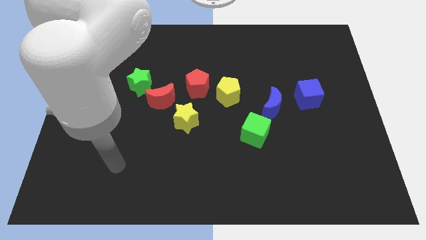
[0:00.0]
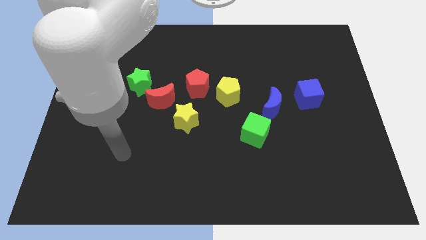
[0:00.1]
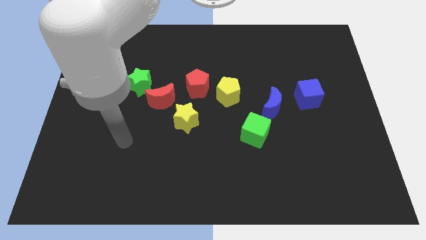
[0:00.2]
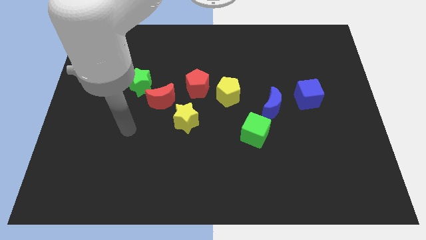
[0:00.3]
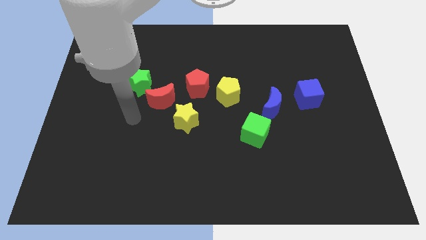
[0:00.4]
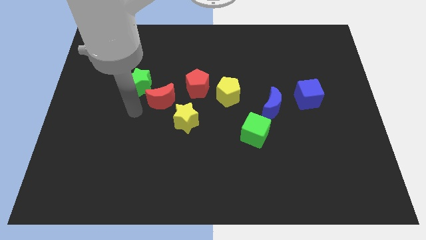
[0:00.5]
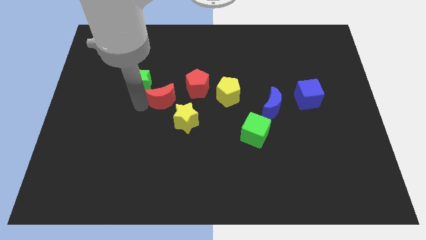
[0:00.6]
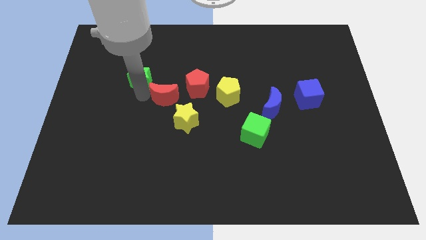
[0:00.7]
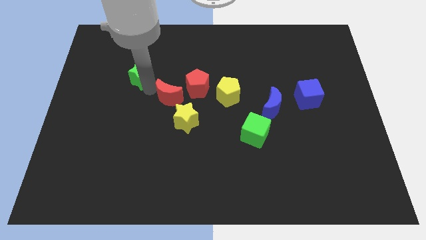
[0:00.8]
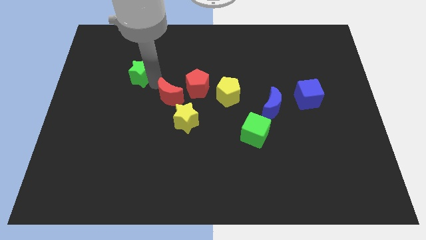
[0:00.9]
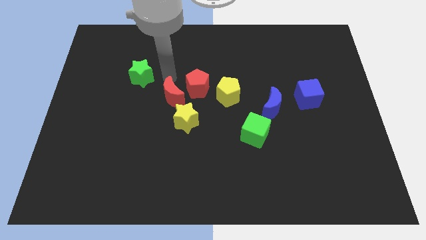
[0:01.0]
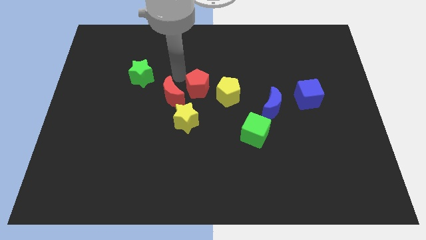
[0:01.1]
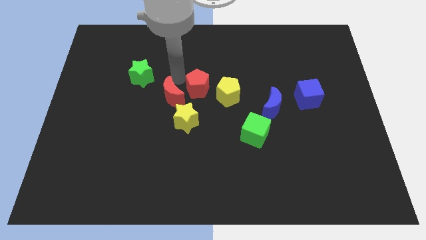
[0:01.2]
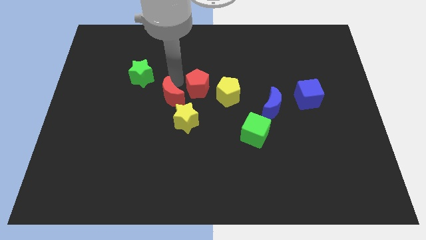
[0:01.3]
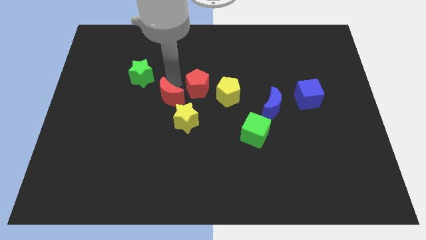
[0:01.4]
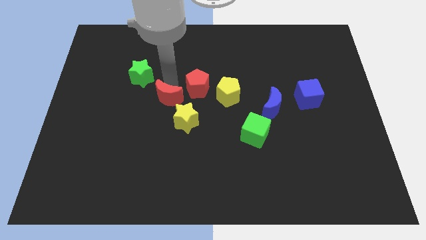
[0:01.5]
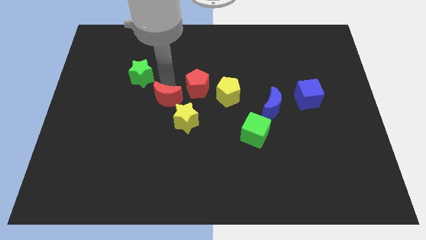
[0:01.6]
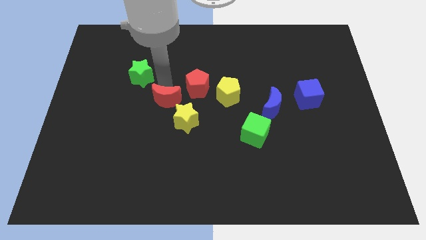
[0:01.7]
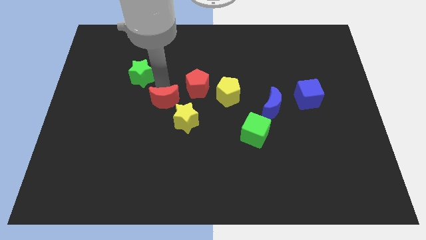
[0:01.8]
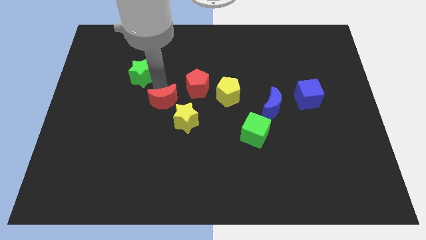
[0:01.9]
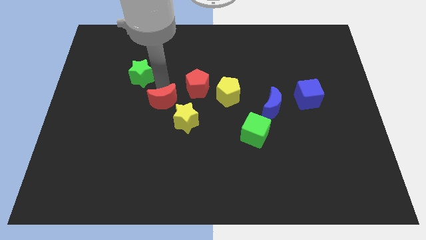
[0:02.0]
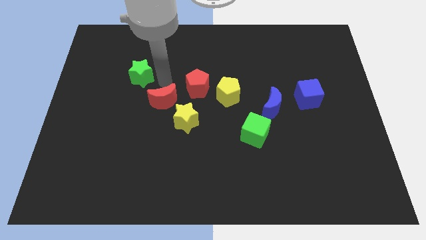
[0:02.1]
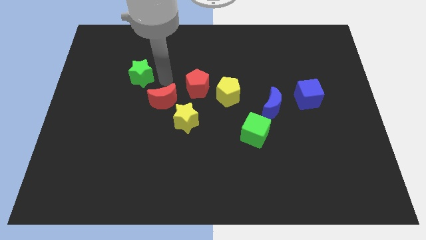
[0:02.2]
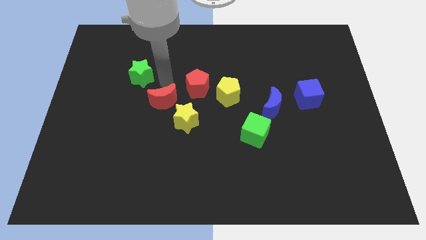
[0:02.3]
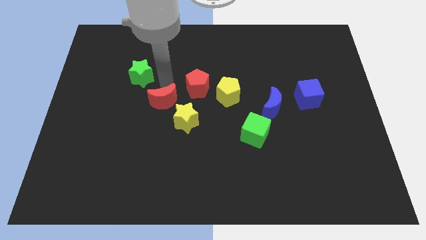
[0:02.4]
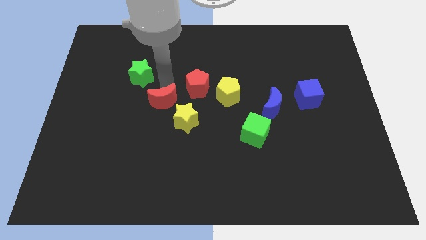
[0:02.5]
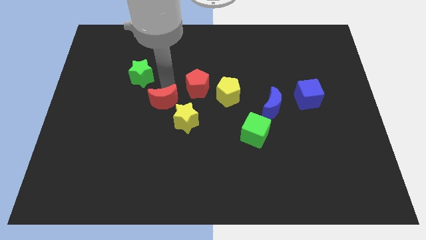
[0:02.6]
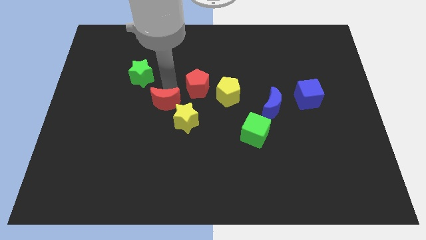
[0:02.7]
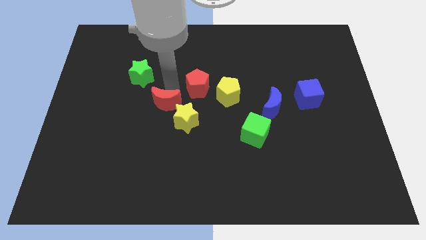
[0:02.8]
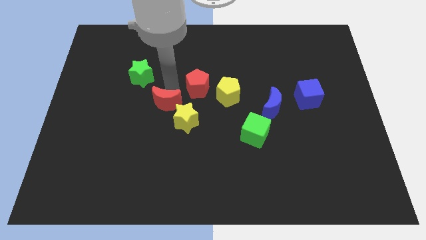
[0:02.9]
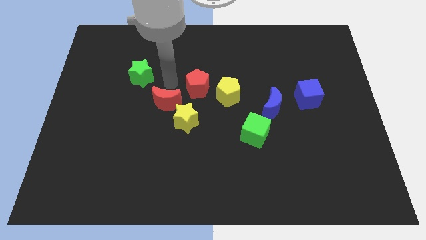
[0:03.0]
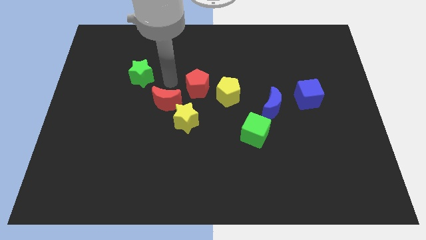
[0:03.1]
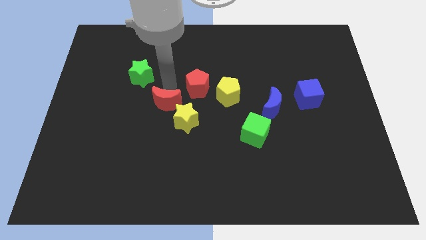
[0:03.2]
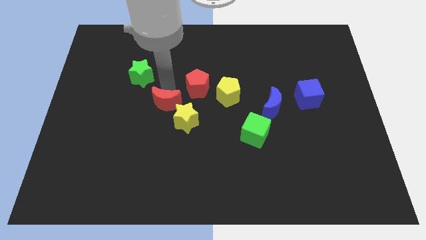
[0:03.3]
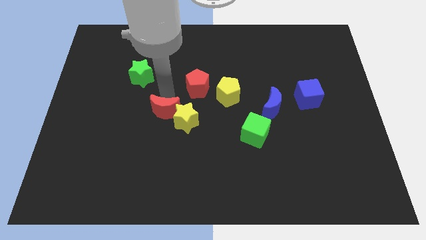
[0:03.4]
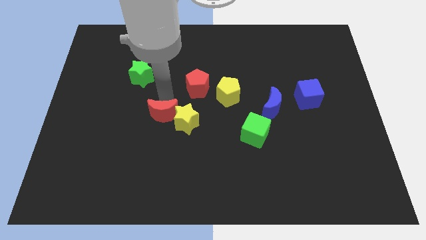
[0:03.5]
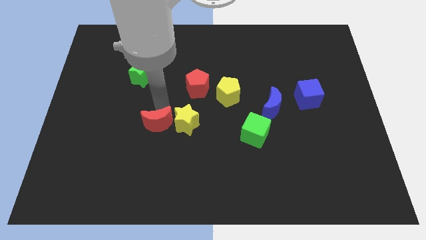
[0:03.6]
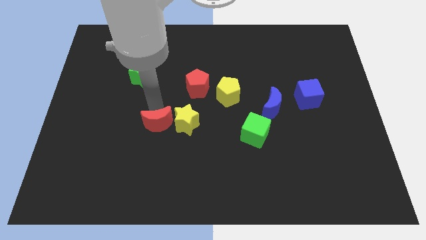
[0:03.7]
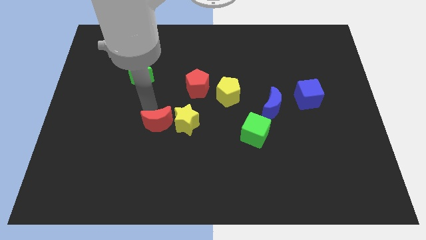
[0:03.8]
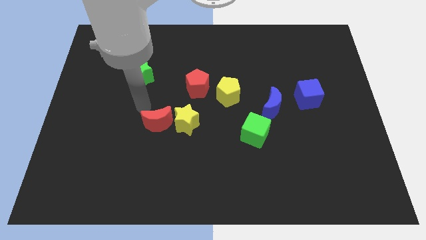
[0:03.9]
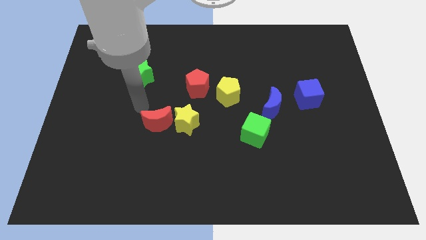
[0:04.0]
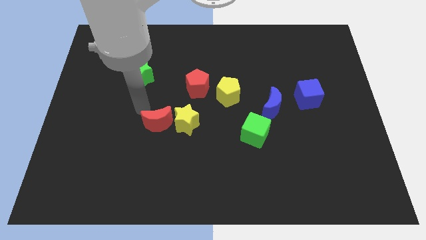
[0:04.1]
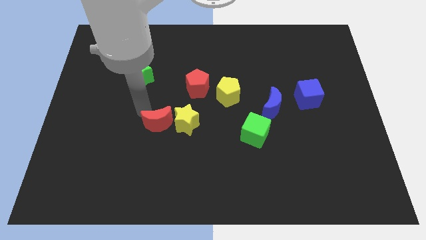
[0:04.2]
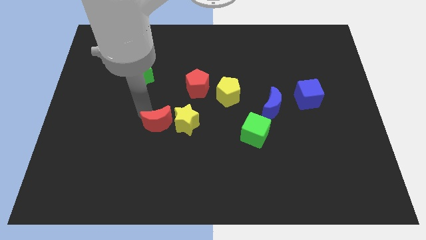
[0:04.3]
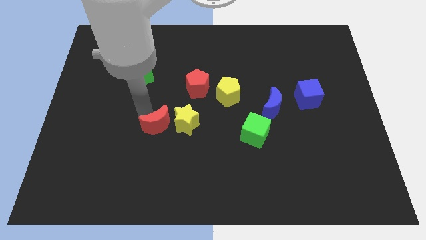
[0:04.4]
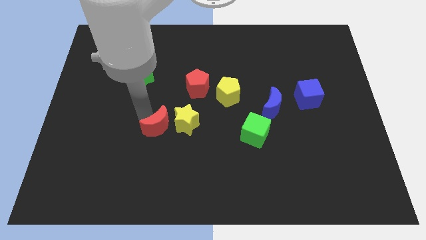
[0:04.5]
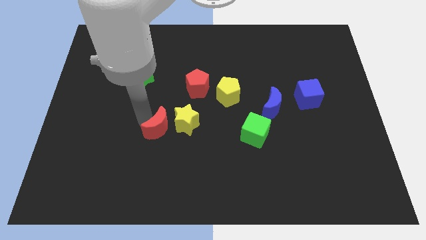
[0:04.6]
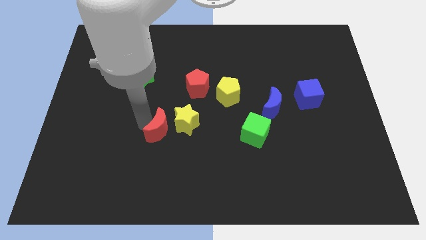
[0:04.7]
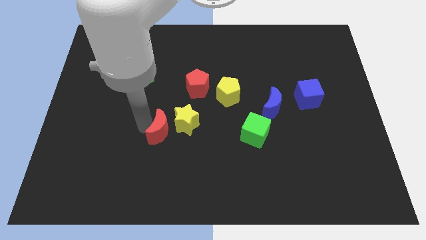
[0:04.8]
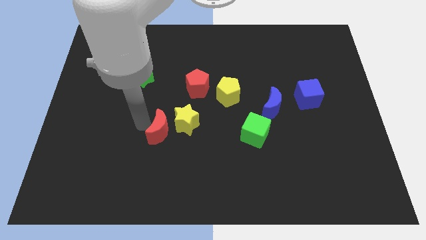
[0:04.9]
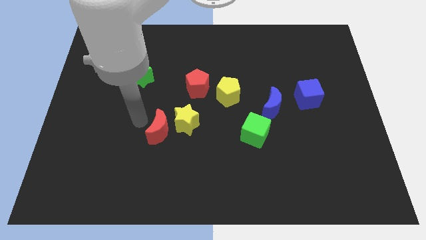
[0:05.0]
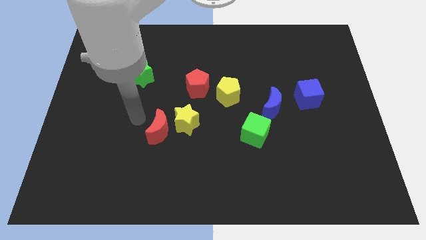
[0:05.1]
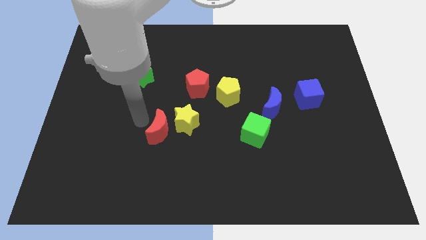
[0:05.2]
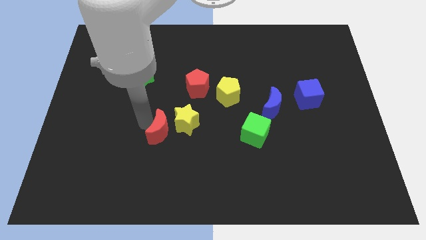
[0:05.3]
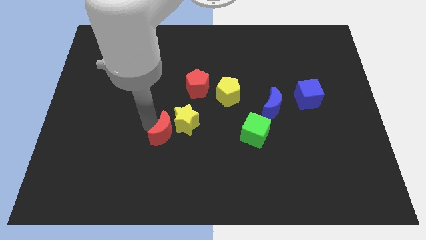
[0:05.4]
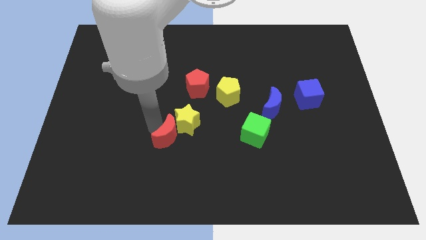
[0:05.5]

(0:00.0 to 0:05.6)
push the red moon slightly downwards and then right

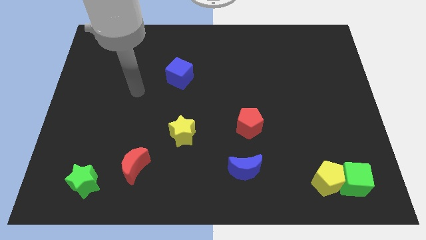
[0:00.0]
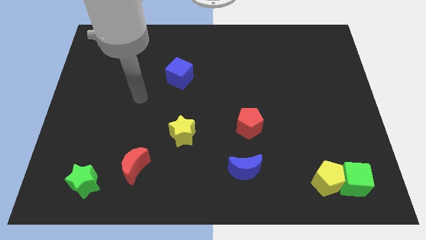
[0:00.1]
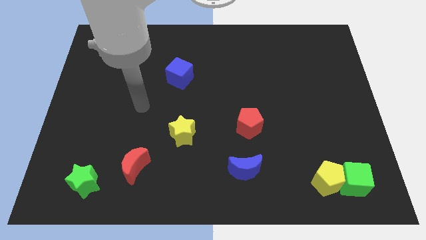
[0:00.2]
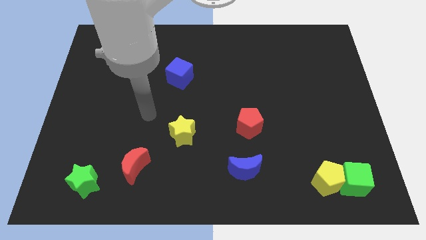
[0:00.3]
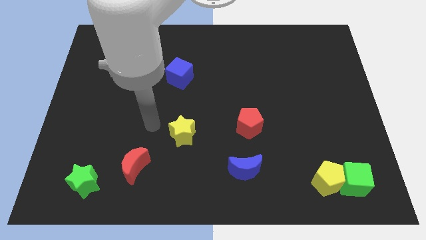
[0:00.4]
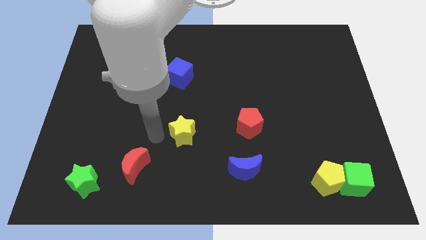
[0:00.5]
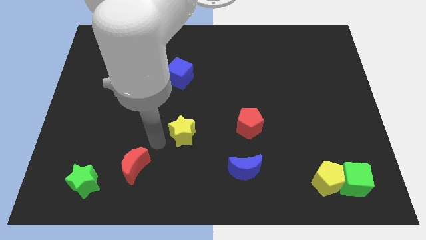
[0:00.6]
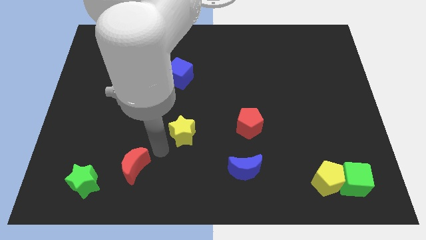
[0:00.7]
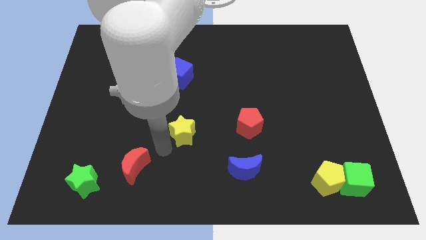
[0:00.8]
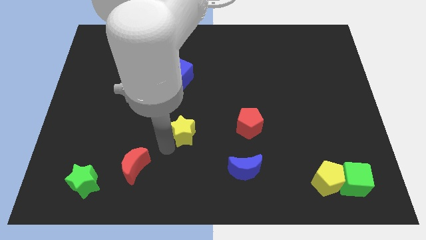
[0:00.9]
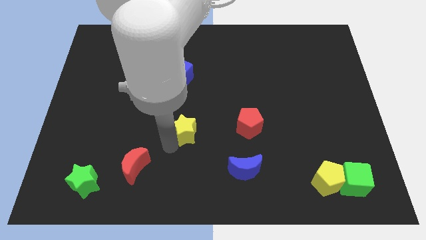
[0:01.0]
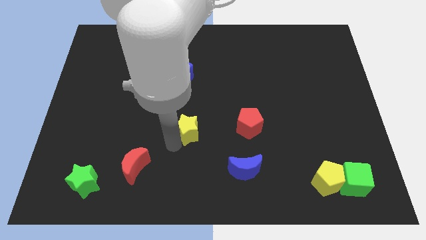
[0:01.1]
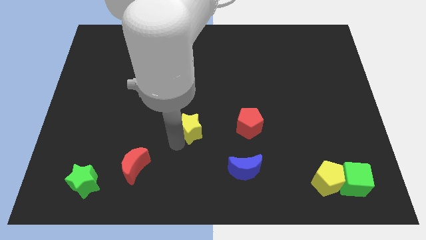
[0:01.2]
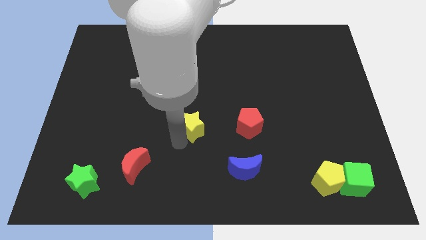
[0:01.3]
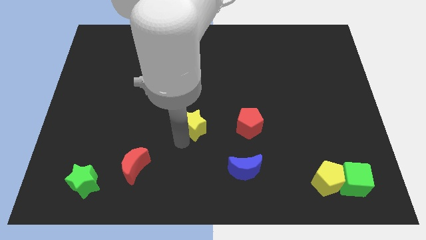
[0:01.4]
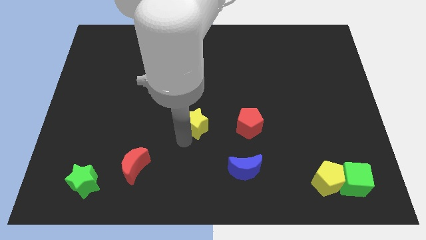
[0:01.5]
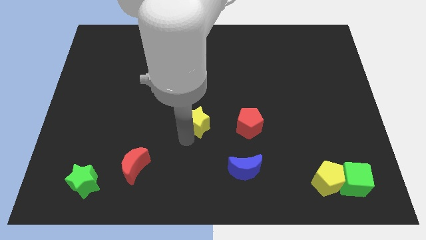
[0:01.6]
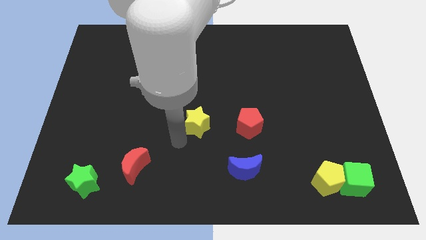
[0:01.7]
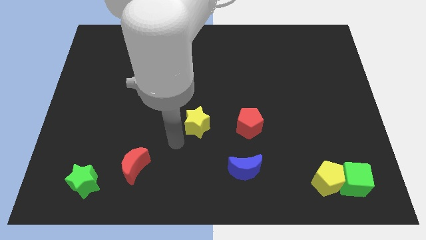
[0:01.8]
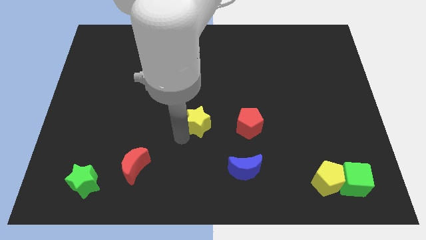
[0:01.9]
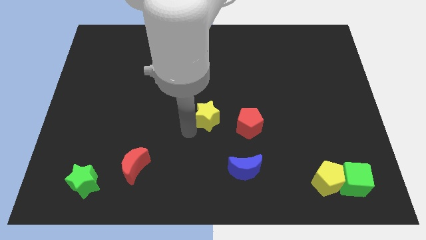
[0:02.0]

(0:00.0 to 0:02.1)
push the yellow star a little bit upwards and then right

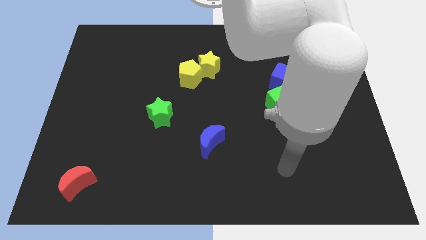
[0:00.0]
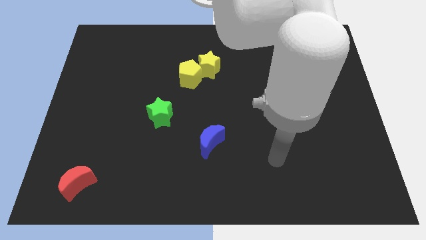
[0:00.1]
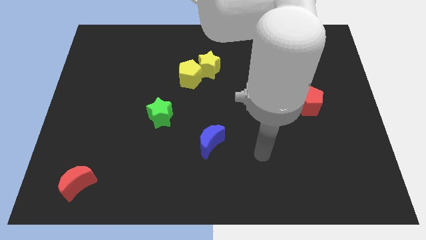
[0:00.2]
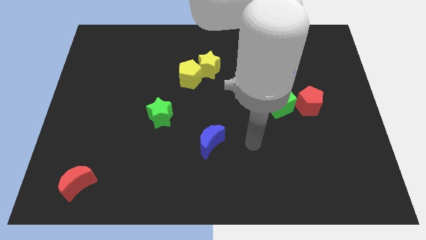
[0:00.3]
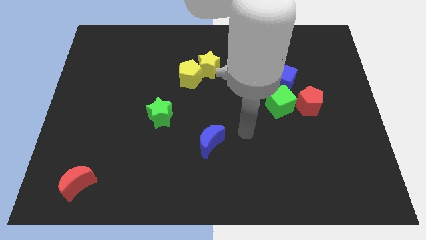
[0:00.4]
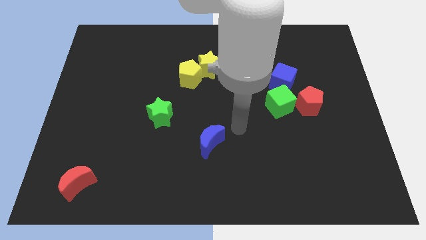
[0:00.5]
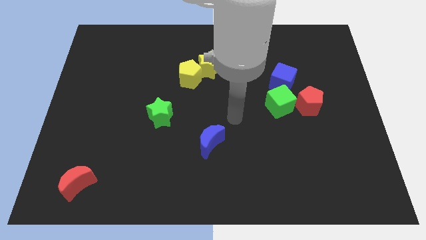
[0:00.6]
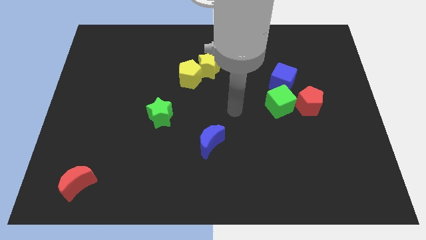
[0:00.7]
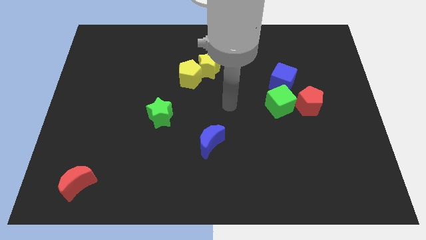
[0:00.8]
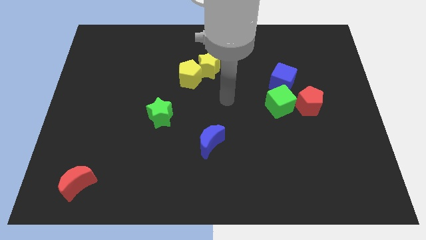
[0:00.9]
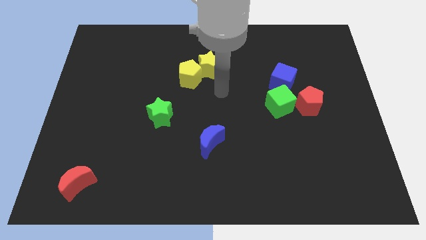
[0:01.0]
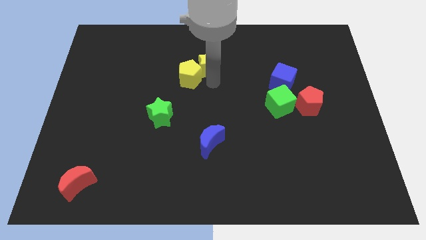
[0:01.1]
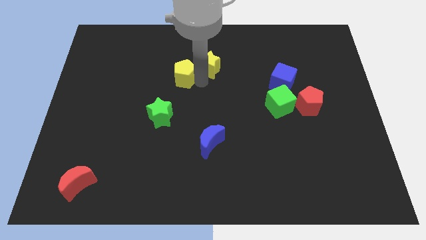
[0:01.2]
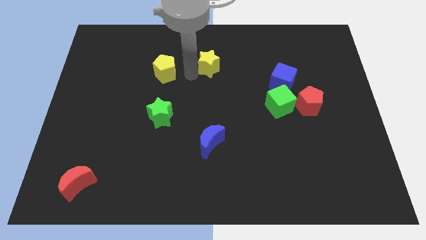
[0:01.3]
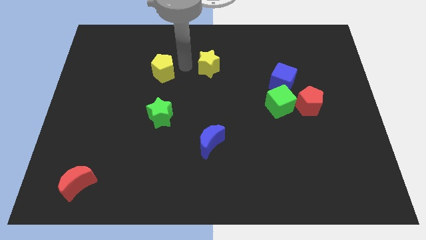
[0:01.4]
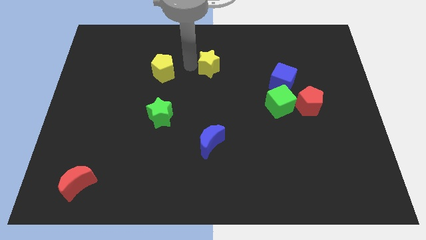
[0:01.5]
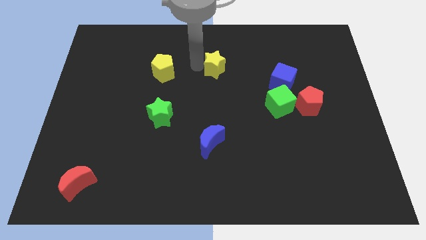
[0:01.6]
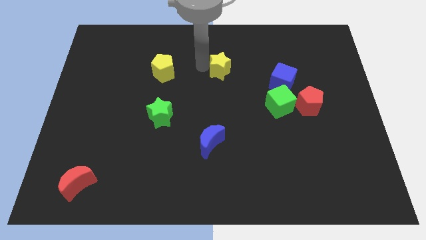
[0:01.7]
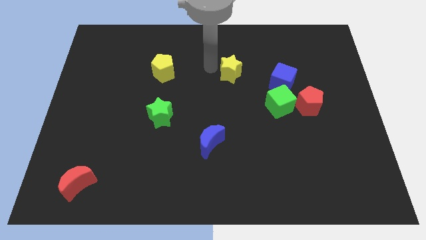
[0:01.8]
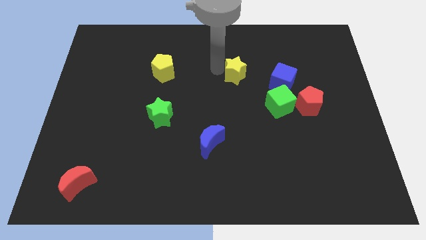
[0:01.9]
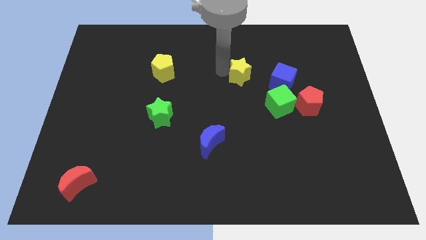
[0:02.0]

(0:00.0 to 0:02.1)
move the yellow star to the right a bit
